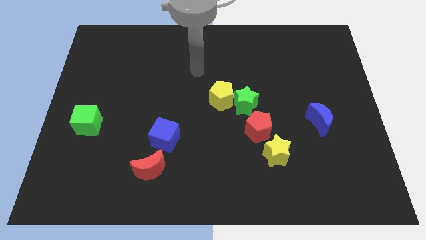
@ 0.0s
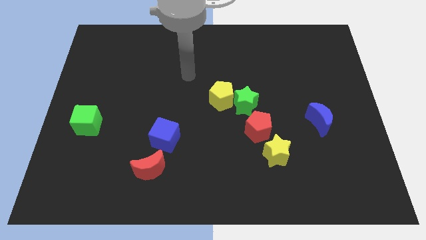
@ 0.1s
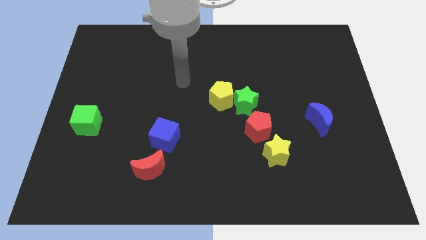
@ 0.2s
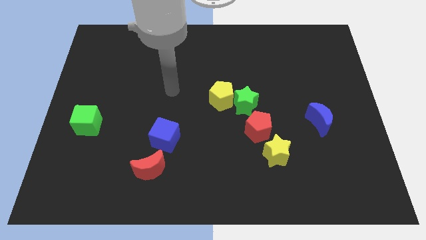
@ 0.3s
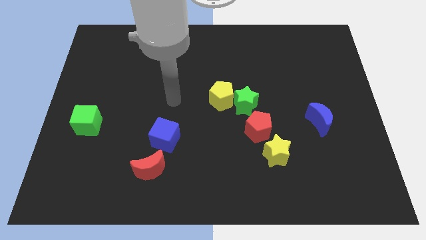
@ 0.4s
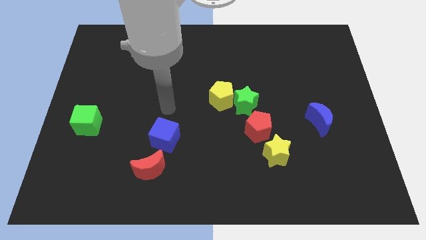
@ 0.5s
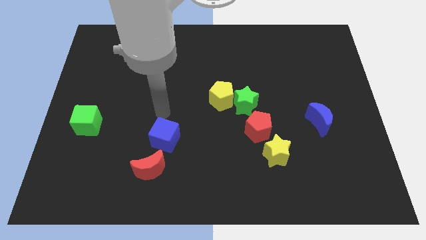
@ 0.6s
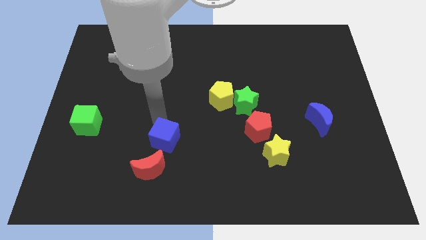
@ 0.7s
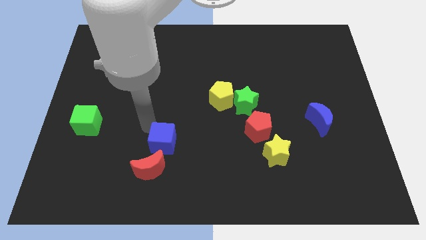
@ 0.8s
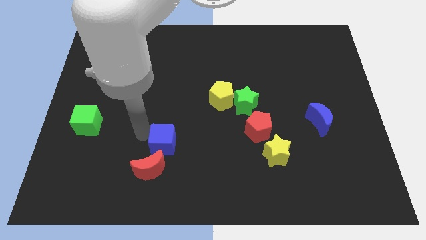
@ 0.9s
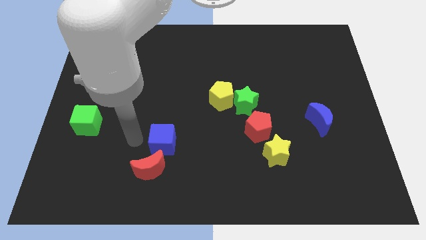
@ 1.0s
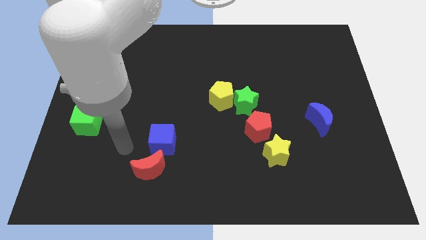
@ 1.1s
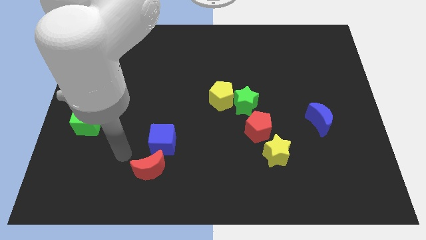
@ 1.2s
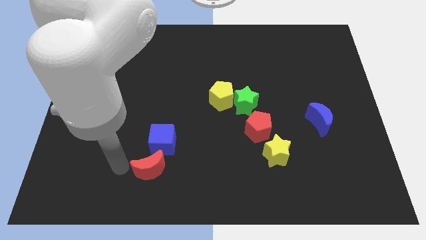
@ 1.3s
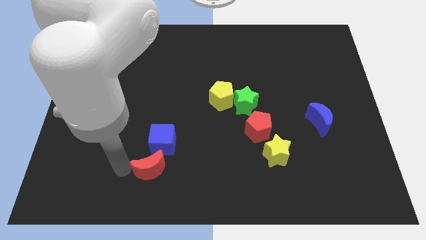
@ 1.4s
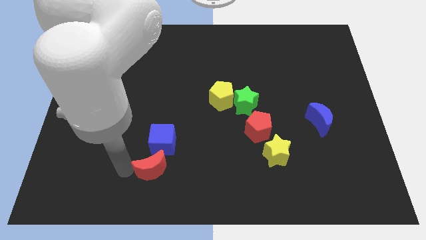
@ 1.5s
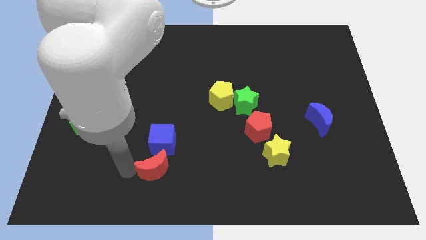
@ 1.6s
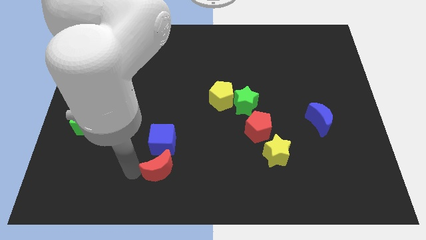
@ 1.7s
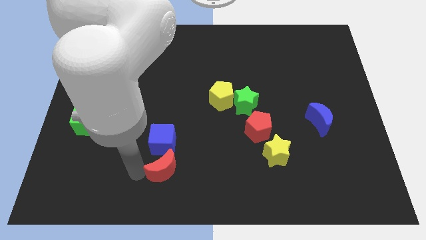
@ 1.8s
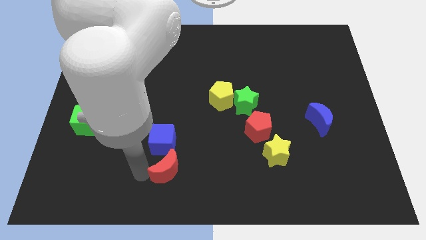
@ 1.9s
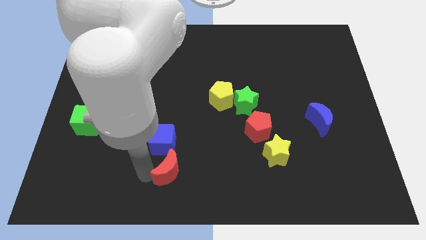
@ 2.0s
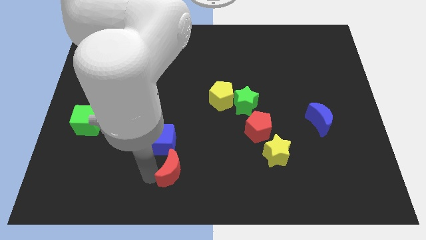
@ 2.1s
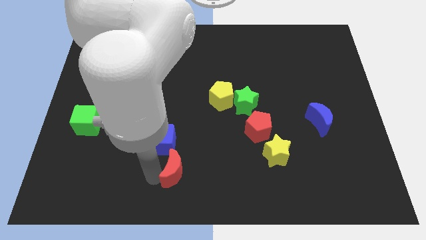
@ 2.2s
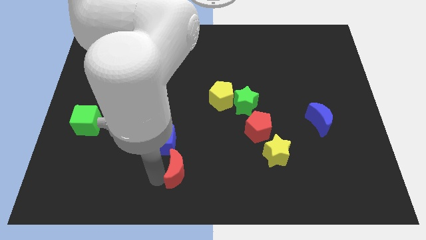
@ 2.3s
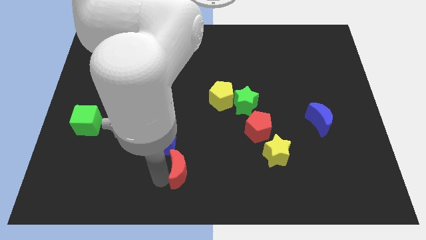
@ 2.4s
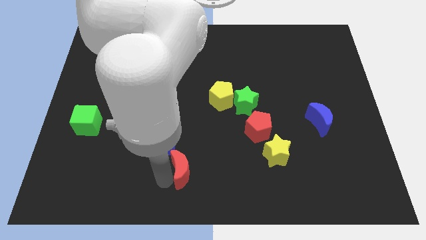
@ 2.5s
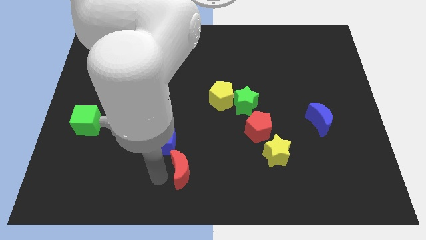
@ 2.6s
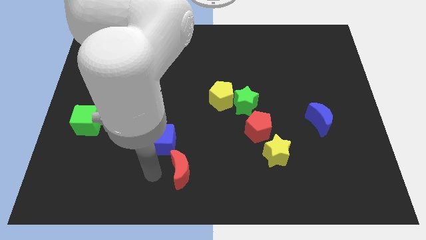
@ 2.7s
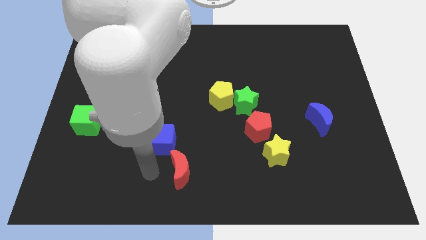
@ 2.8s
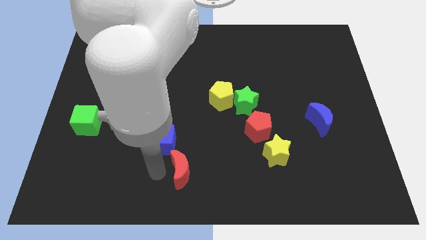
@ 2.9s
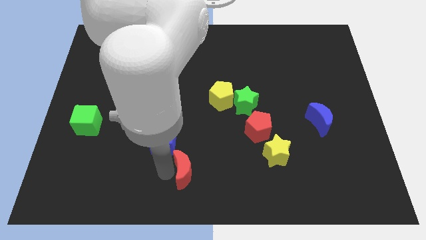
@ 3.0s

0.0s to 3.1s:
slightly slide the red moon to the right

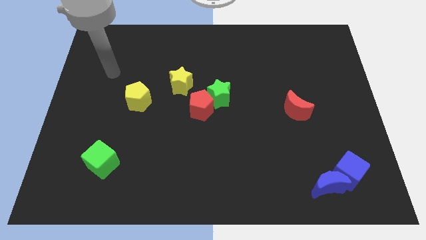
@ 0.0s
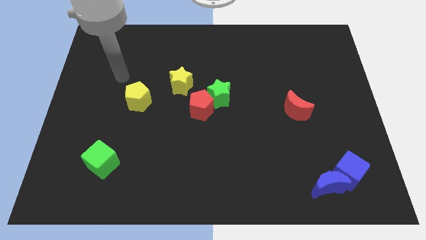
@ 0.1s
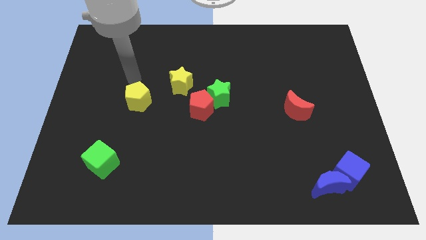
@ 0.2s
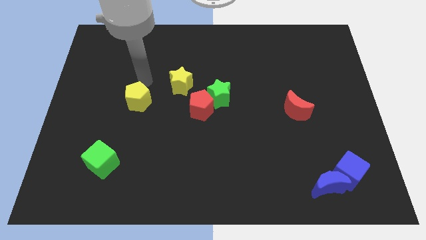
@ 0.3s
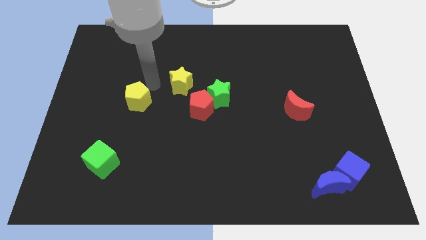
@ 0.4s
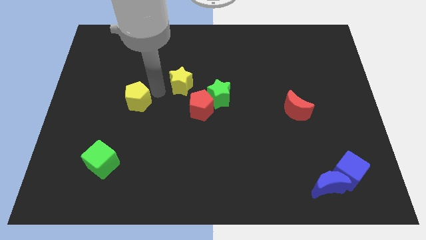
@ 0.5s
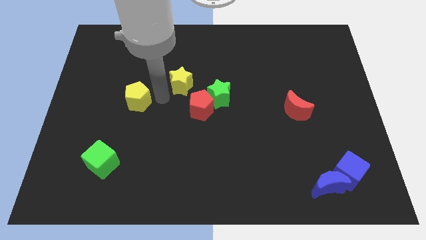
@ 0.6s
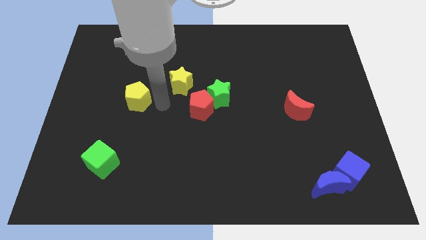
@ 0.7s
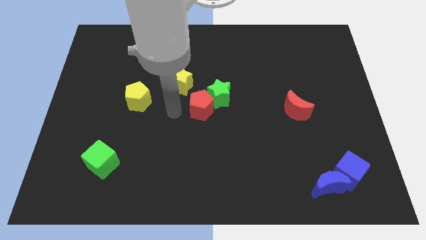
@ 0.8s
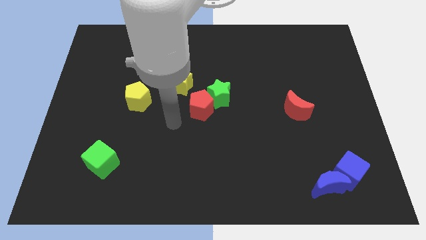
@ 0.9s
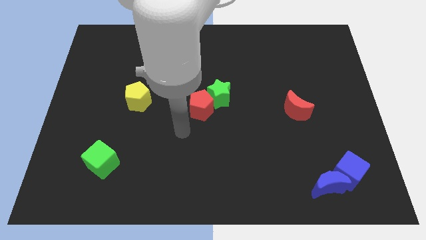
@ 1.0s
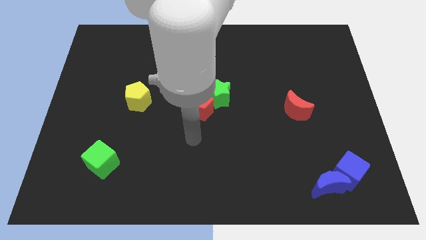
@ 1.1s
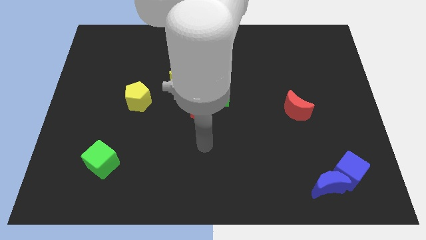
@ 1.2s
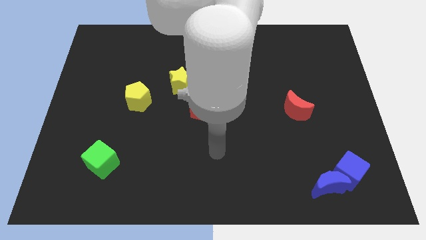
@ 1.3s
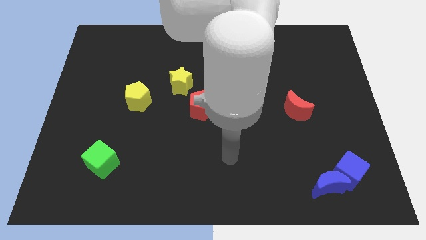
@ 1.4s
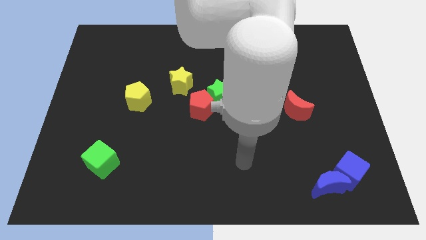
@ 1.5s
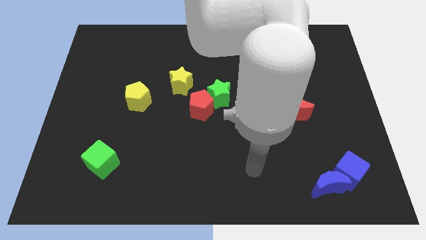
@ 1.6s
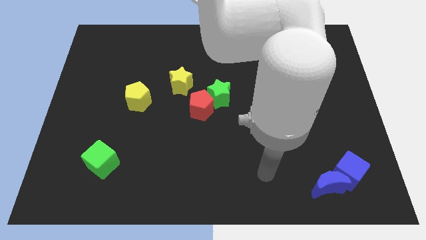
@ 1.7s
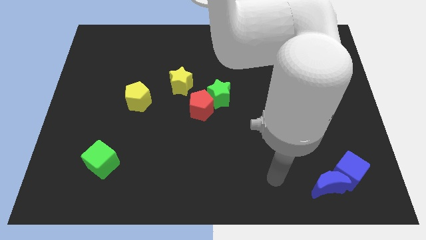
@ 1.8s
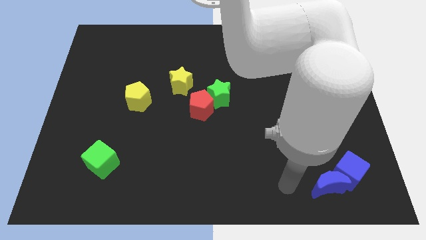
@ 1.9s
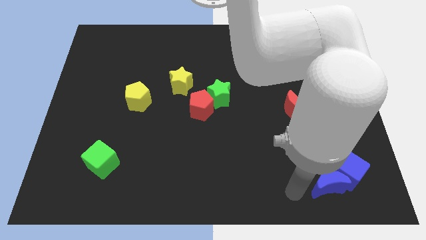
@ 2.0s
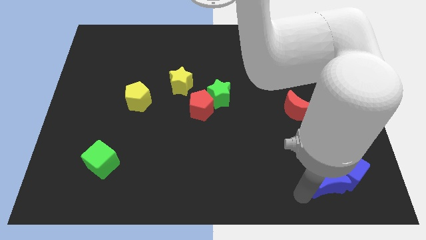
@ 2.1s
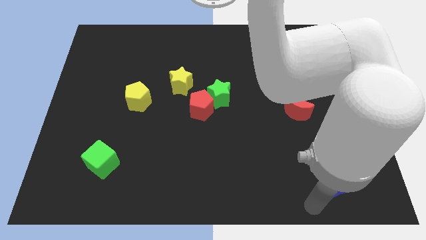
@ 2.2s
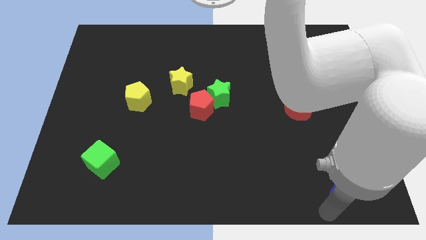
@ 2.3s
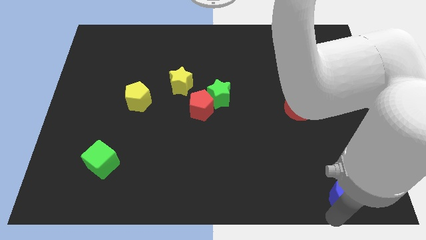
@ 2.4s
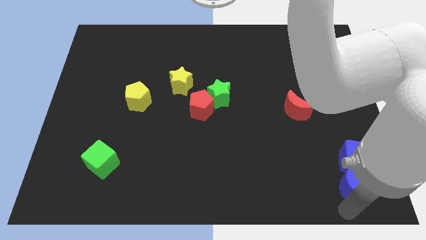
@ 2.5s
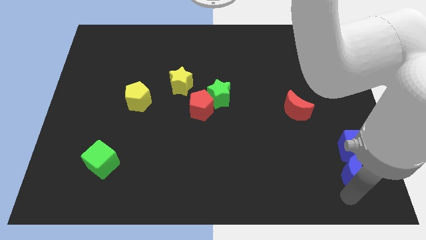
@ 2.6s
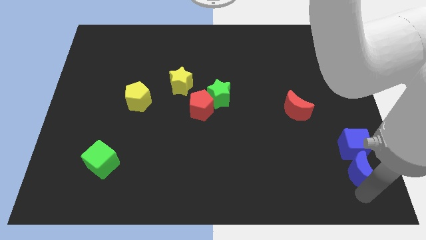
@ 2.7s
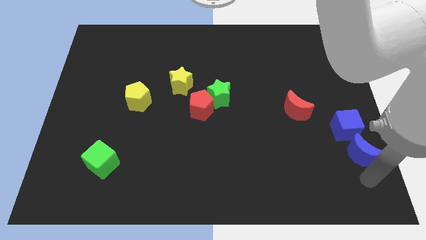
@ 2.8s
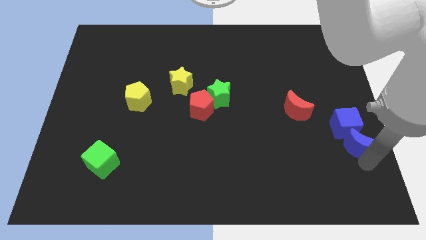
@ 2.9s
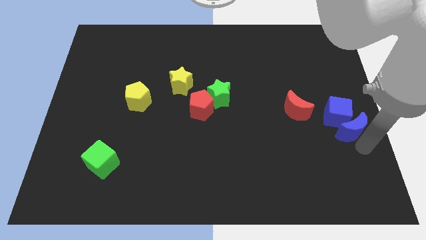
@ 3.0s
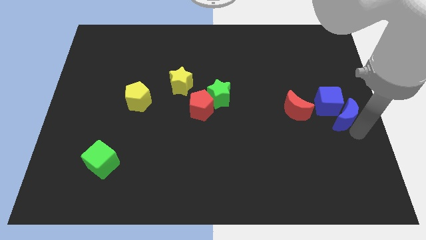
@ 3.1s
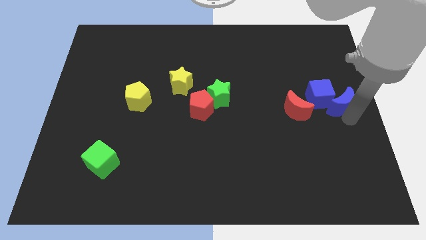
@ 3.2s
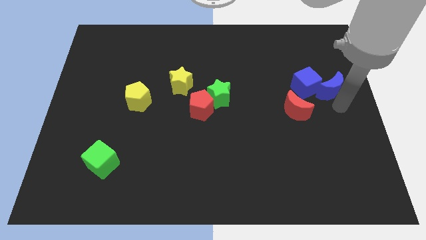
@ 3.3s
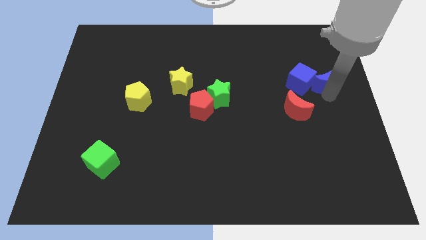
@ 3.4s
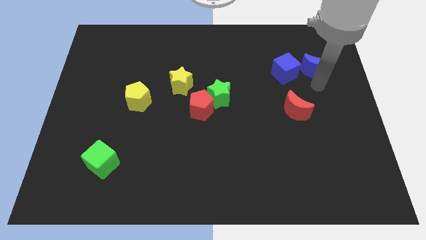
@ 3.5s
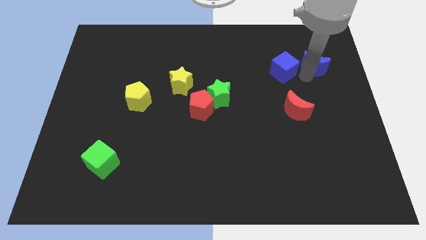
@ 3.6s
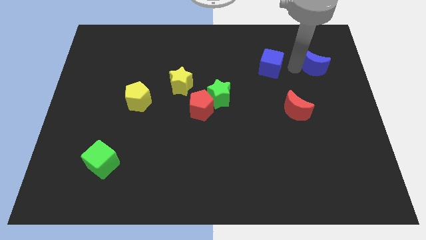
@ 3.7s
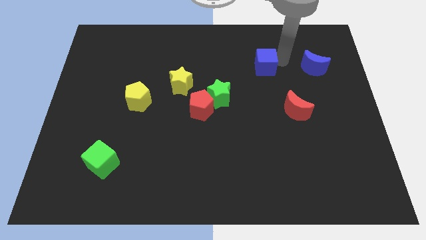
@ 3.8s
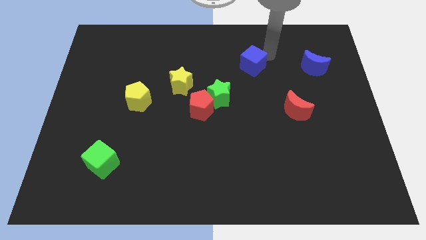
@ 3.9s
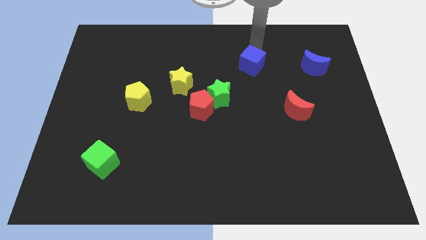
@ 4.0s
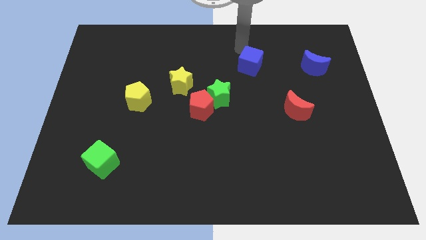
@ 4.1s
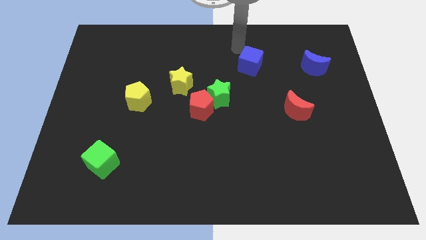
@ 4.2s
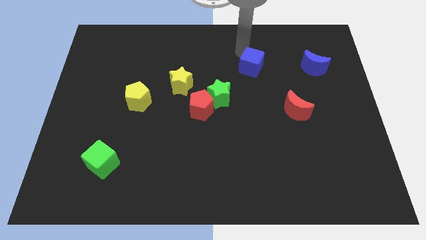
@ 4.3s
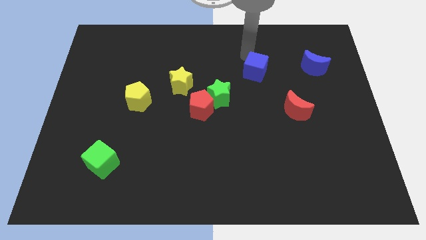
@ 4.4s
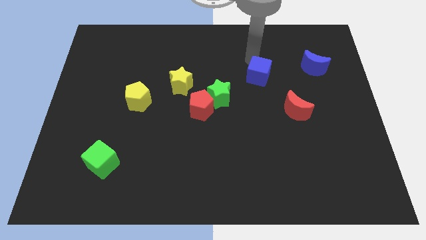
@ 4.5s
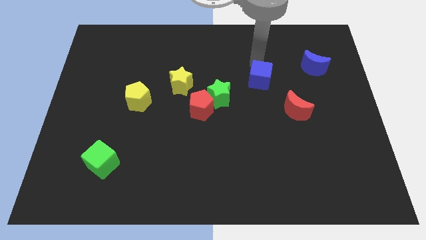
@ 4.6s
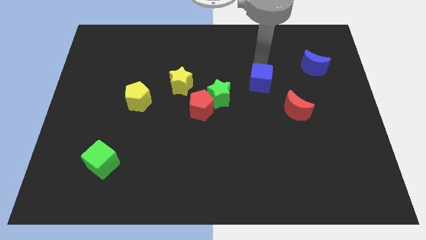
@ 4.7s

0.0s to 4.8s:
push the blue cube diagonally up and to the left somewhat

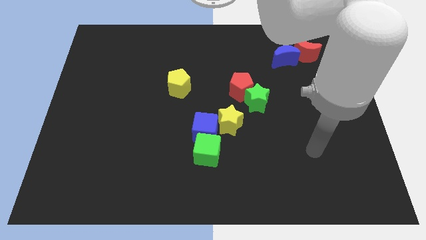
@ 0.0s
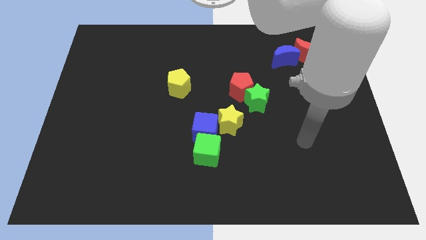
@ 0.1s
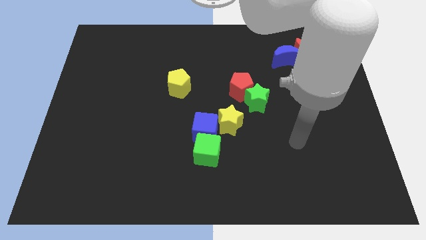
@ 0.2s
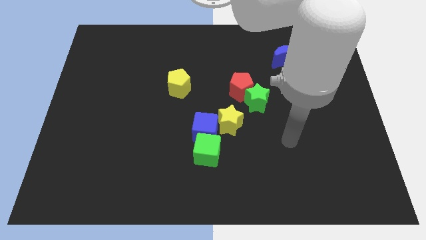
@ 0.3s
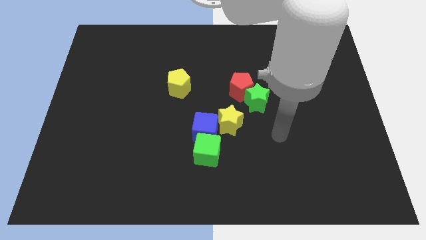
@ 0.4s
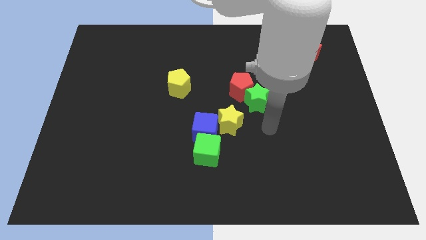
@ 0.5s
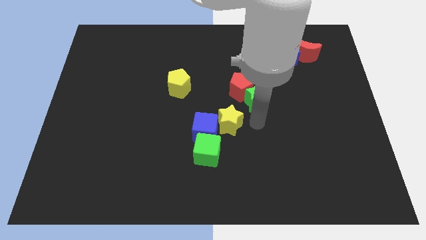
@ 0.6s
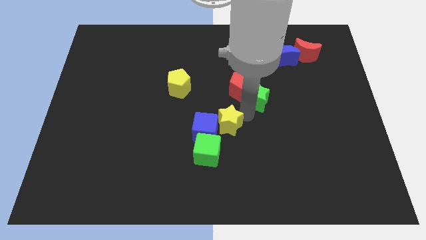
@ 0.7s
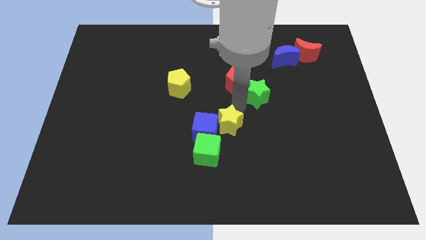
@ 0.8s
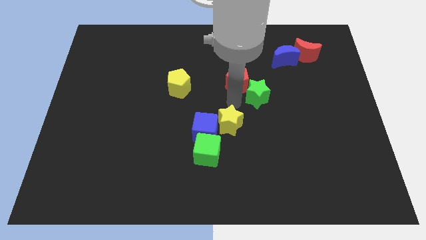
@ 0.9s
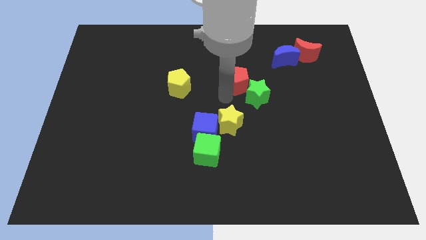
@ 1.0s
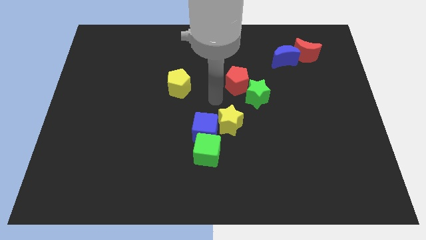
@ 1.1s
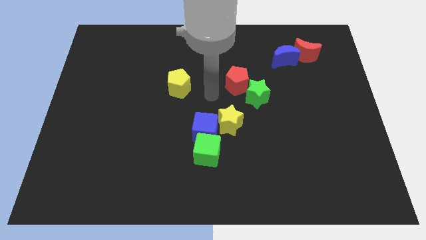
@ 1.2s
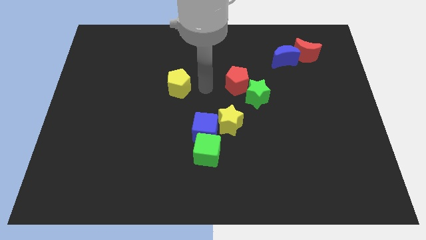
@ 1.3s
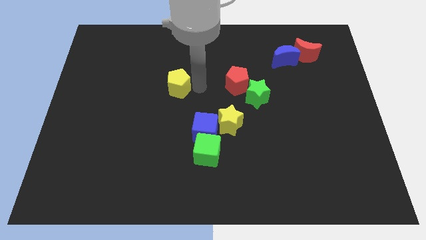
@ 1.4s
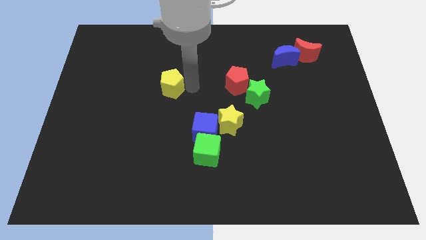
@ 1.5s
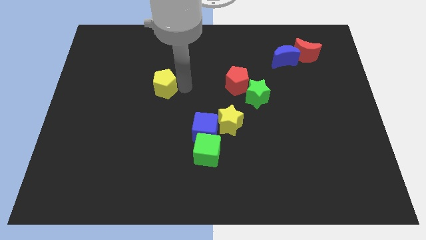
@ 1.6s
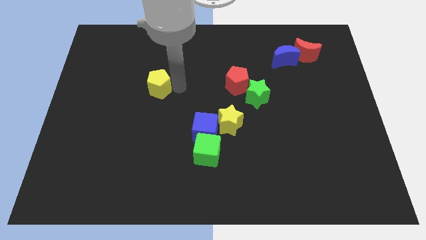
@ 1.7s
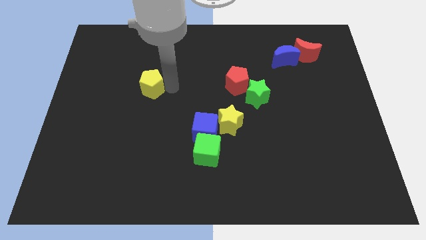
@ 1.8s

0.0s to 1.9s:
push the yellow pentagon left a little bit
